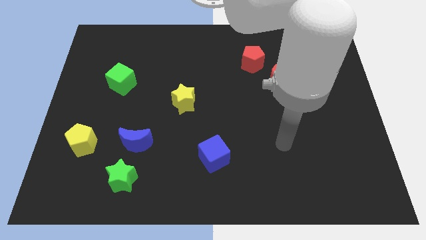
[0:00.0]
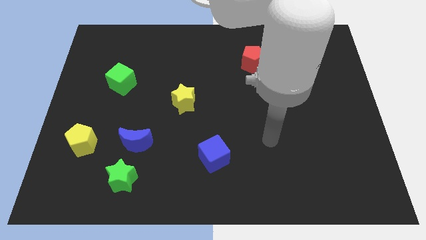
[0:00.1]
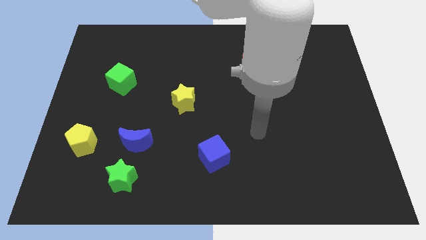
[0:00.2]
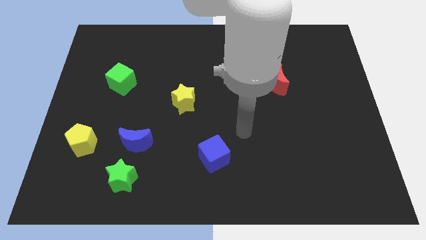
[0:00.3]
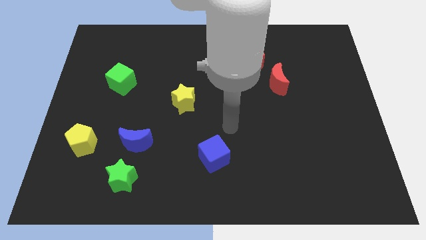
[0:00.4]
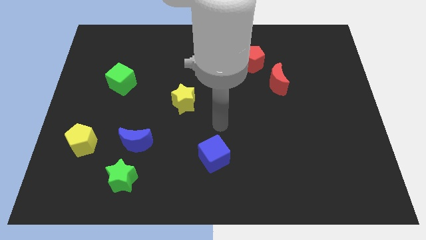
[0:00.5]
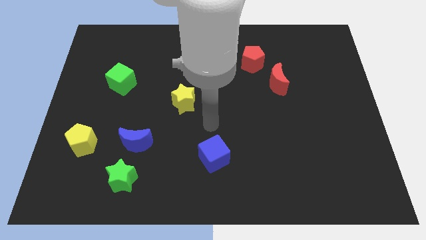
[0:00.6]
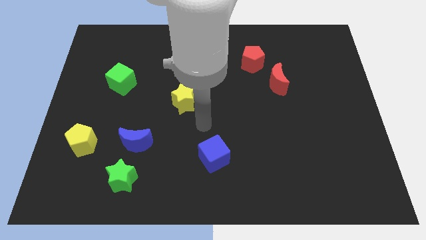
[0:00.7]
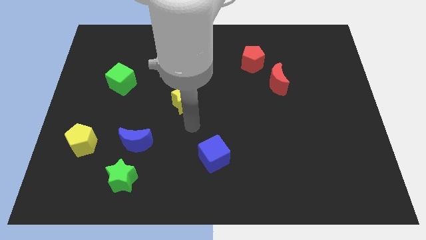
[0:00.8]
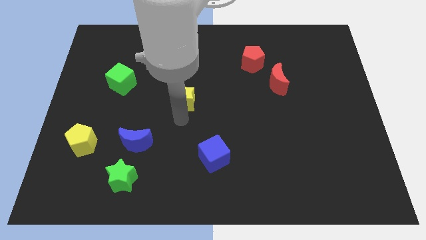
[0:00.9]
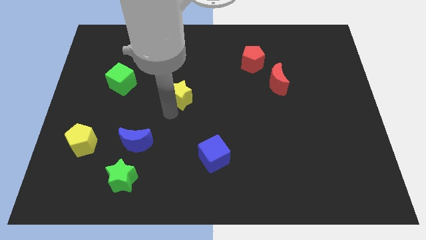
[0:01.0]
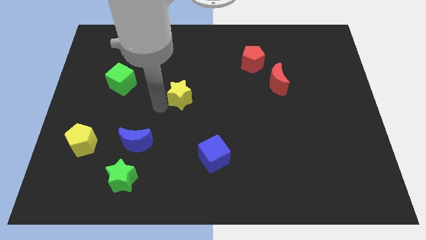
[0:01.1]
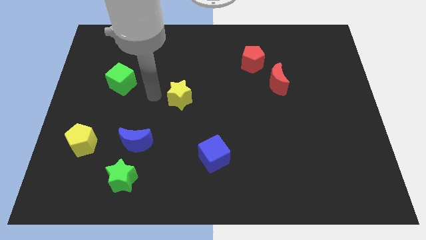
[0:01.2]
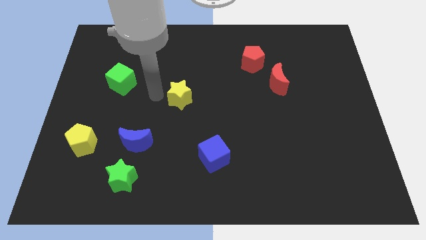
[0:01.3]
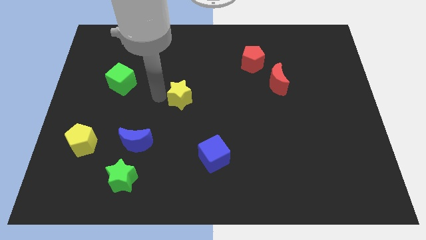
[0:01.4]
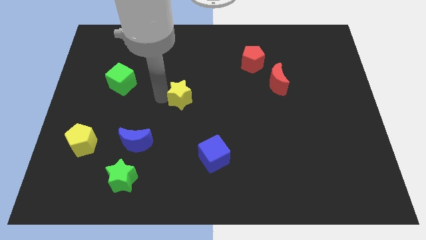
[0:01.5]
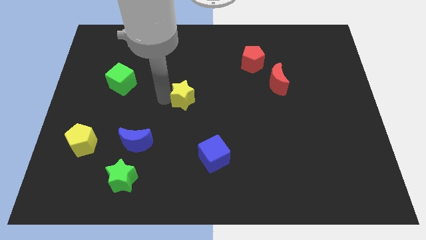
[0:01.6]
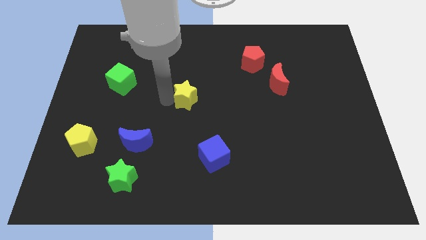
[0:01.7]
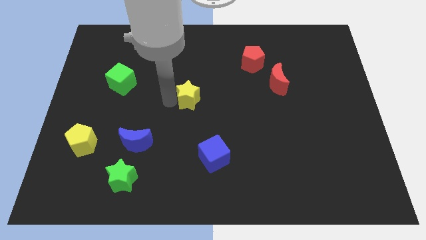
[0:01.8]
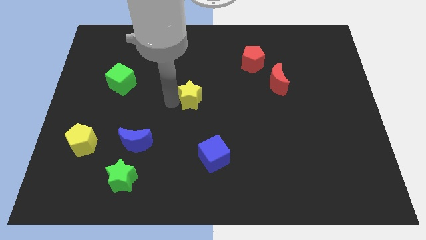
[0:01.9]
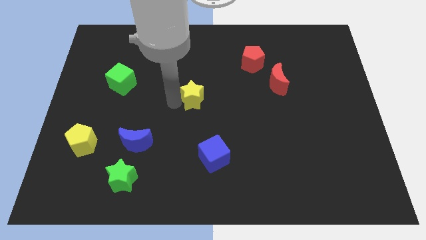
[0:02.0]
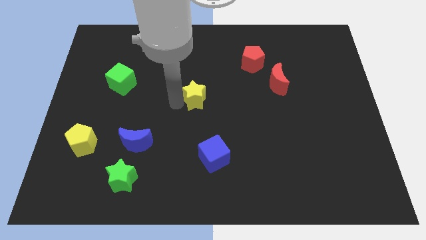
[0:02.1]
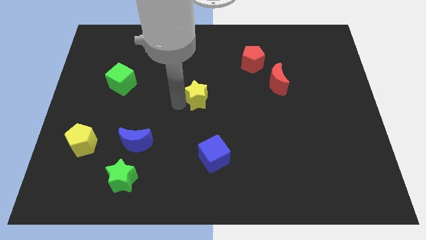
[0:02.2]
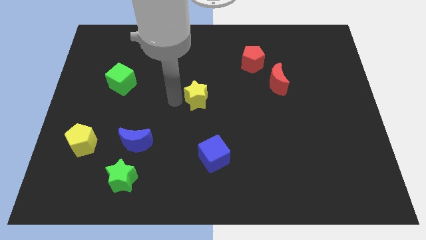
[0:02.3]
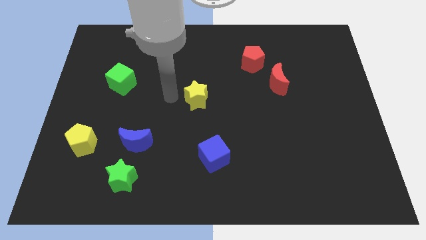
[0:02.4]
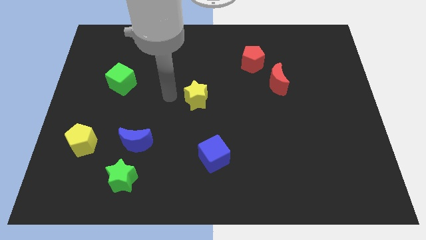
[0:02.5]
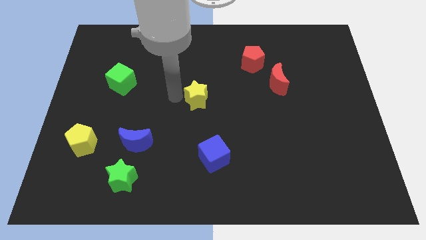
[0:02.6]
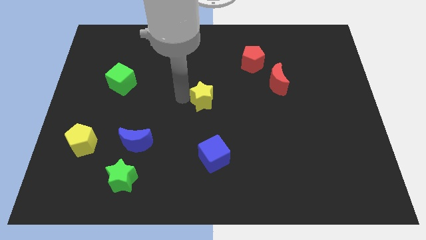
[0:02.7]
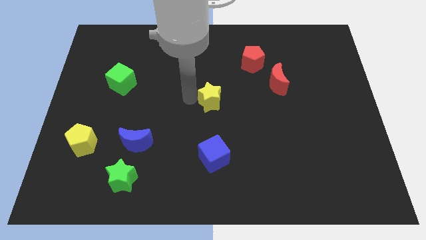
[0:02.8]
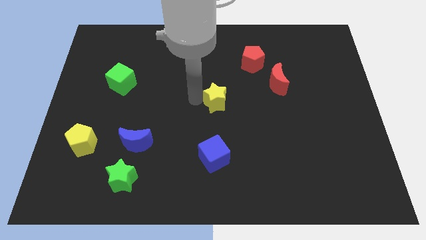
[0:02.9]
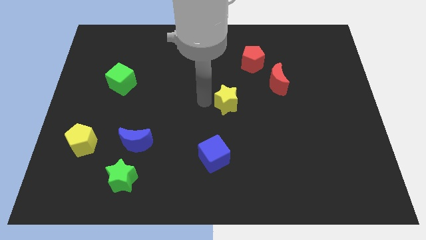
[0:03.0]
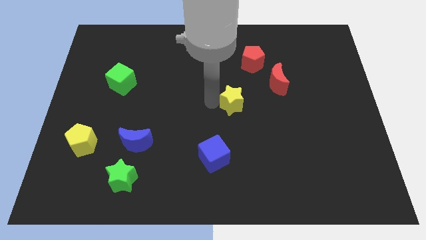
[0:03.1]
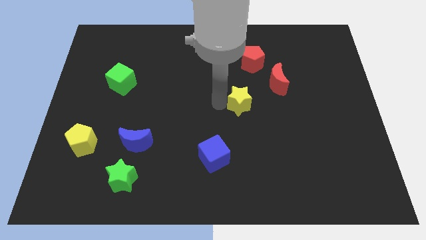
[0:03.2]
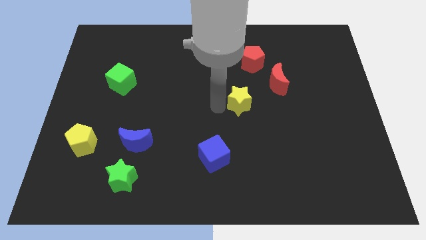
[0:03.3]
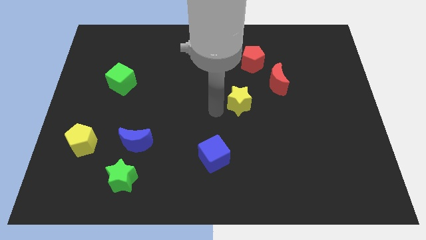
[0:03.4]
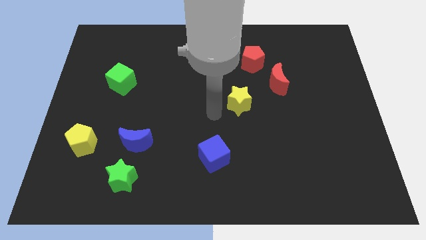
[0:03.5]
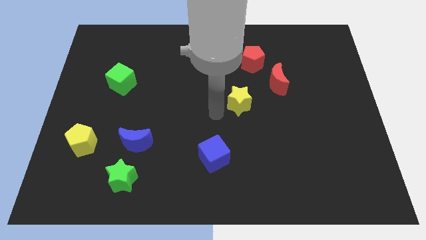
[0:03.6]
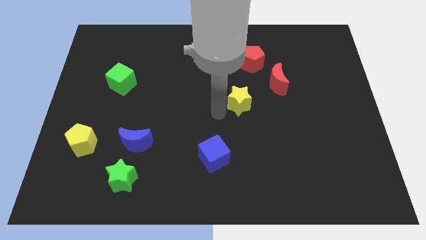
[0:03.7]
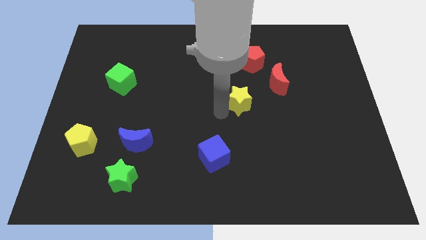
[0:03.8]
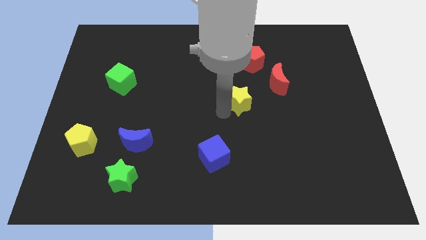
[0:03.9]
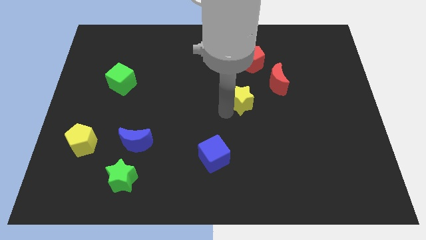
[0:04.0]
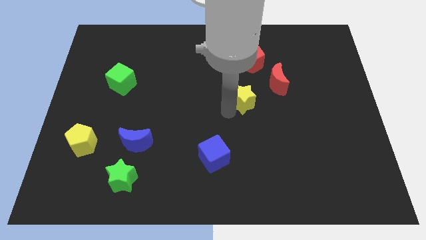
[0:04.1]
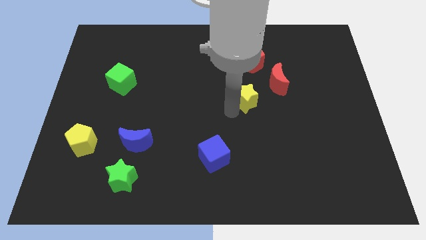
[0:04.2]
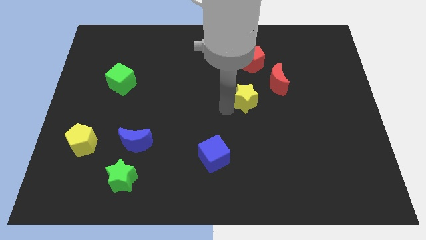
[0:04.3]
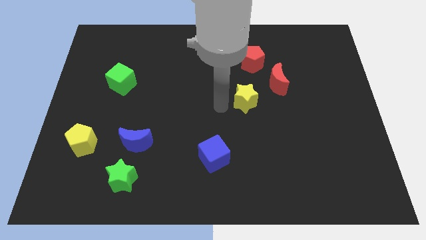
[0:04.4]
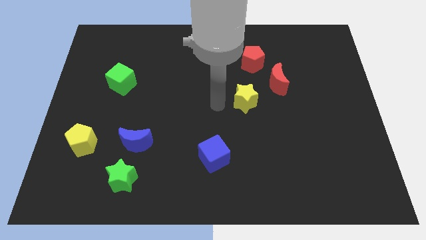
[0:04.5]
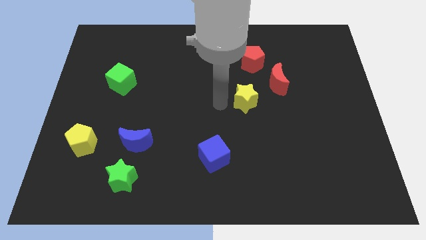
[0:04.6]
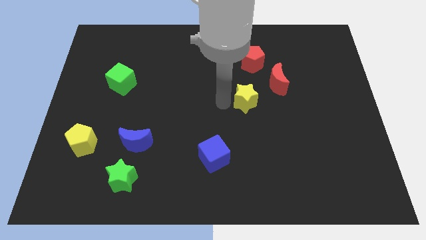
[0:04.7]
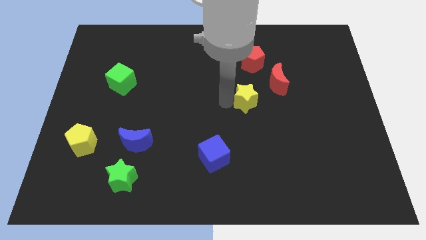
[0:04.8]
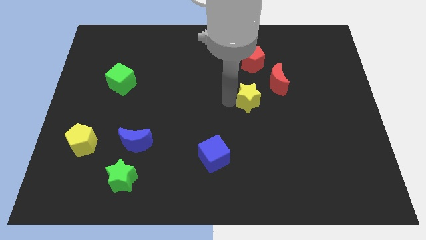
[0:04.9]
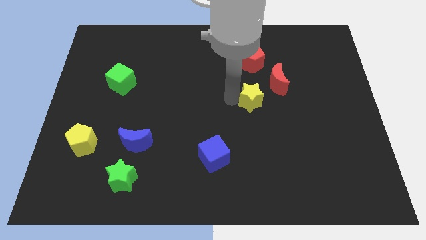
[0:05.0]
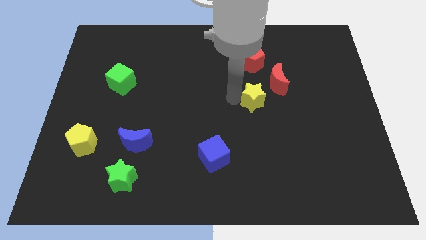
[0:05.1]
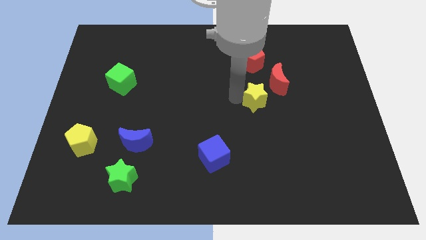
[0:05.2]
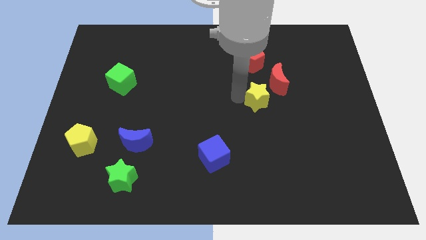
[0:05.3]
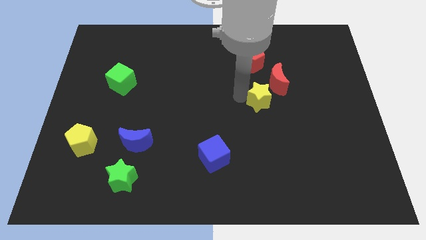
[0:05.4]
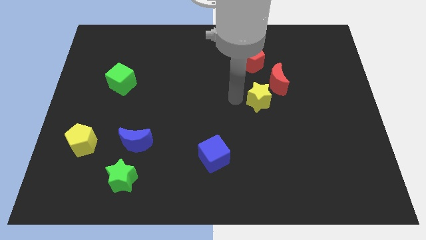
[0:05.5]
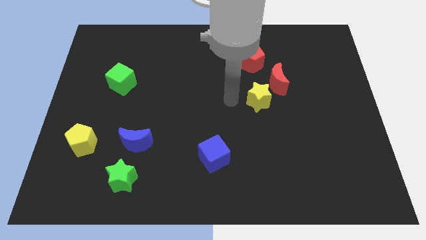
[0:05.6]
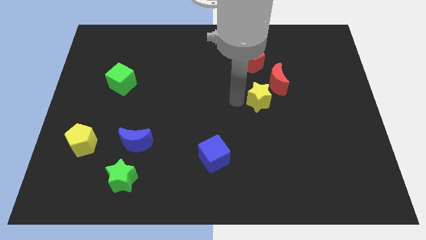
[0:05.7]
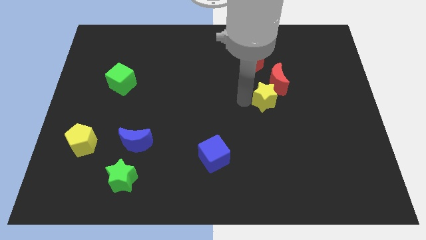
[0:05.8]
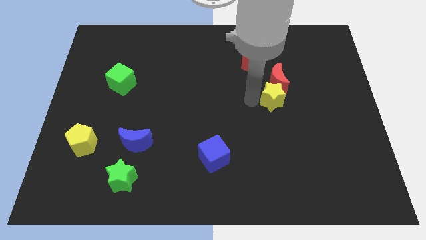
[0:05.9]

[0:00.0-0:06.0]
move the yellow star to the right

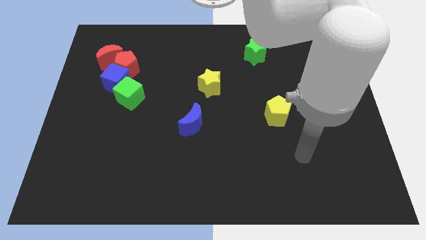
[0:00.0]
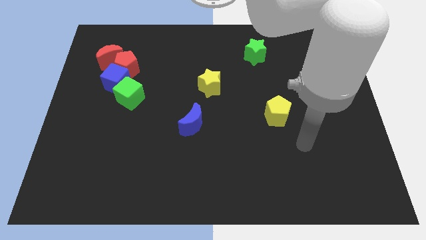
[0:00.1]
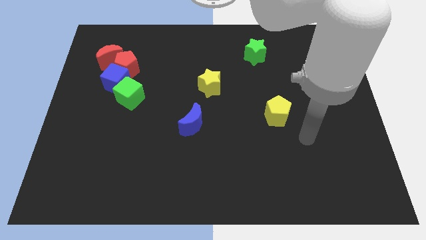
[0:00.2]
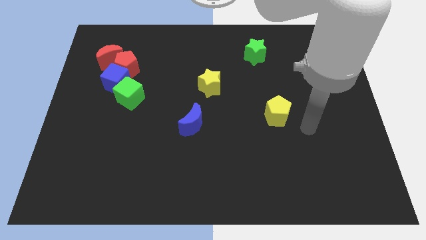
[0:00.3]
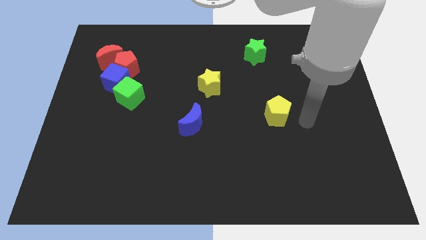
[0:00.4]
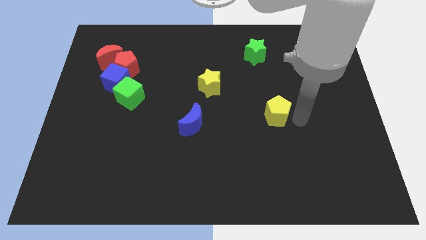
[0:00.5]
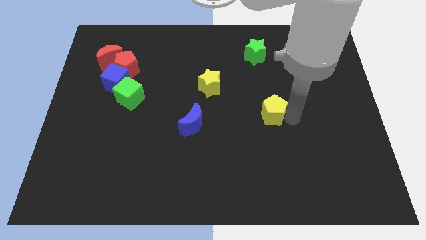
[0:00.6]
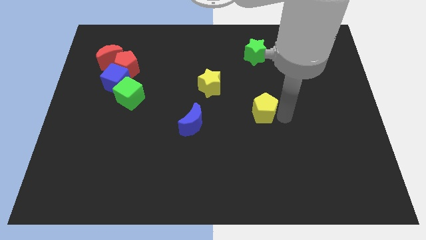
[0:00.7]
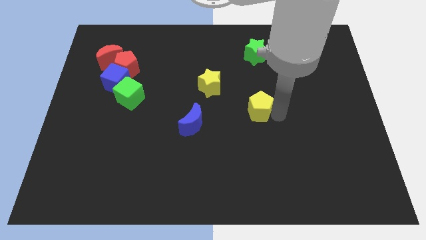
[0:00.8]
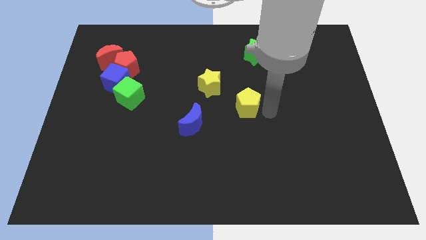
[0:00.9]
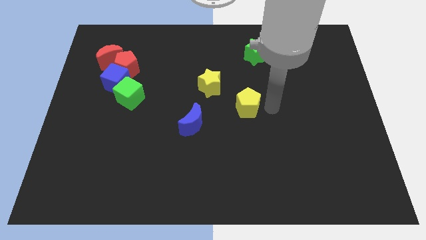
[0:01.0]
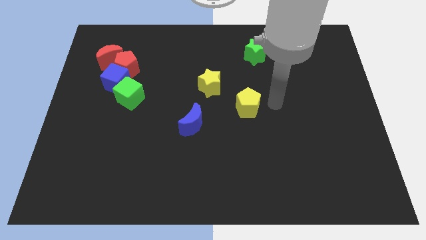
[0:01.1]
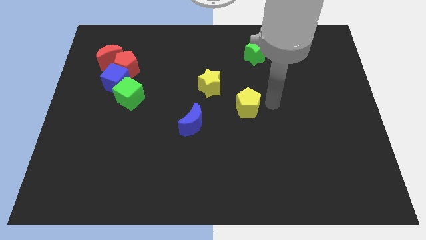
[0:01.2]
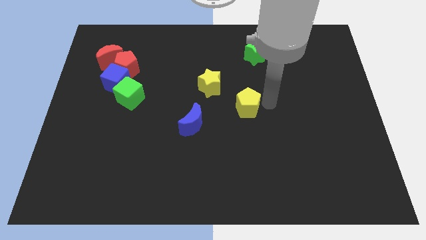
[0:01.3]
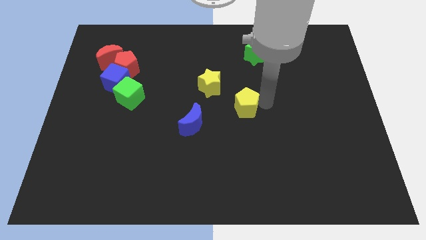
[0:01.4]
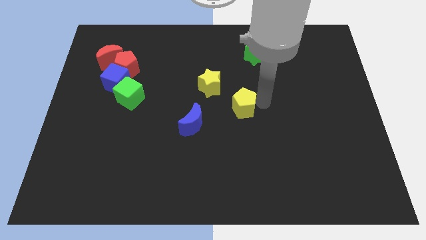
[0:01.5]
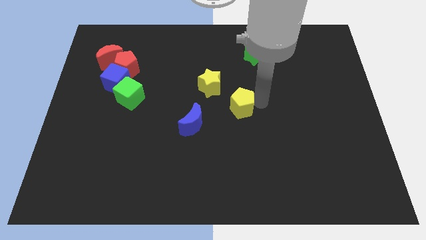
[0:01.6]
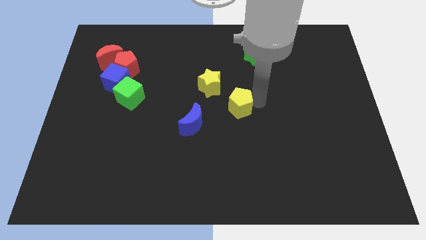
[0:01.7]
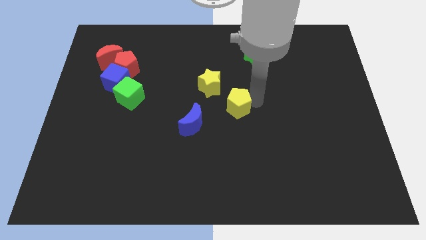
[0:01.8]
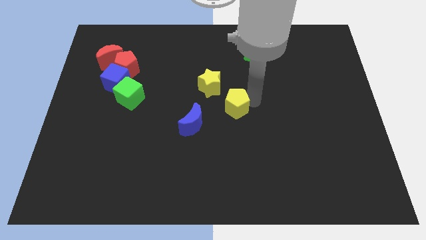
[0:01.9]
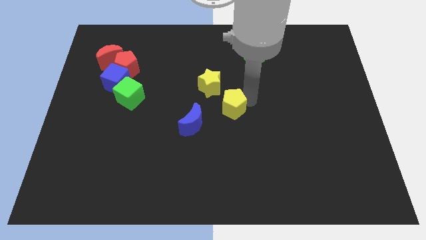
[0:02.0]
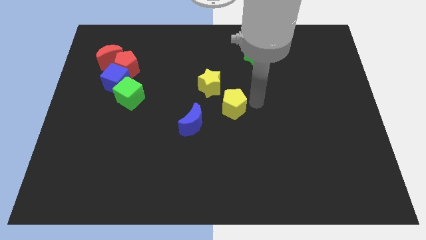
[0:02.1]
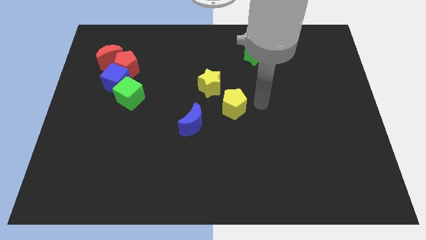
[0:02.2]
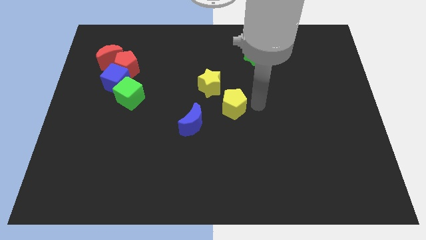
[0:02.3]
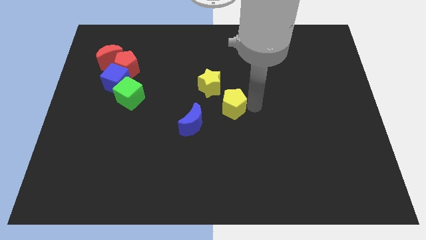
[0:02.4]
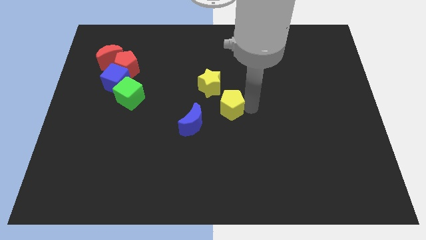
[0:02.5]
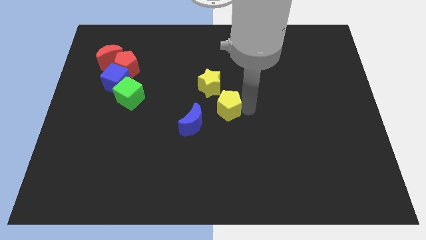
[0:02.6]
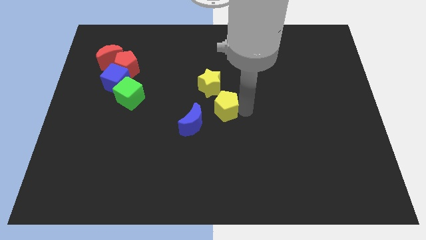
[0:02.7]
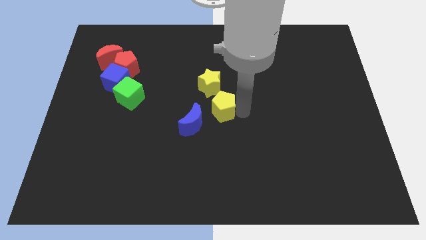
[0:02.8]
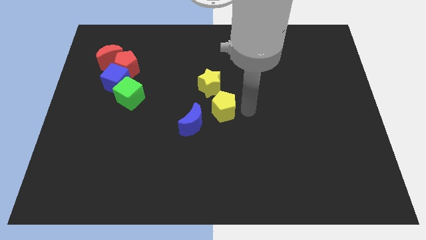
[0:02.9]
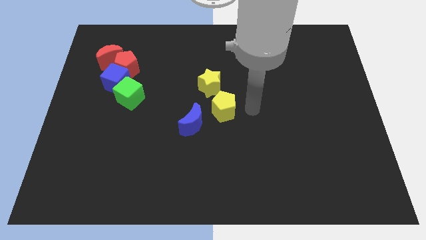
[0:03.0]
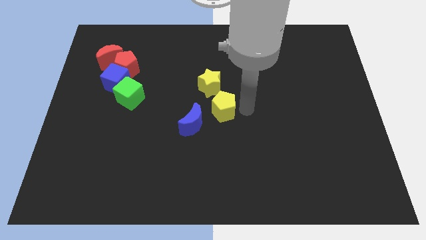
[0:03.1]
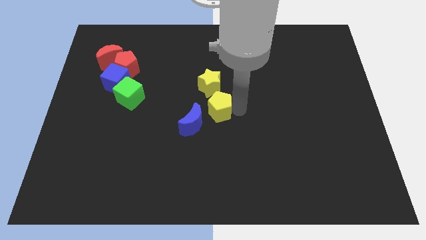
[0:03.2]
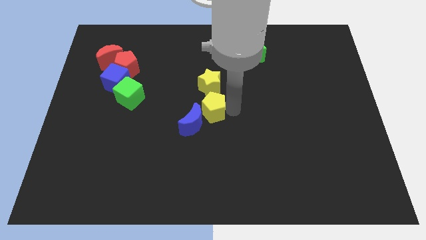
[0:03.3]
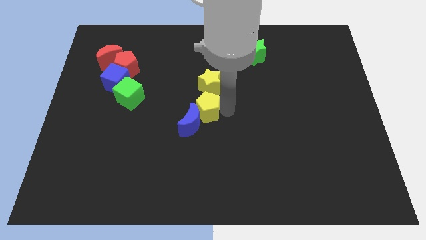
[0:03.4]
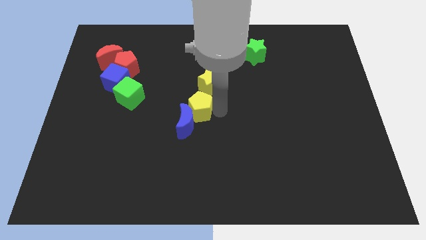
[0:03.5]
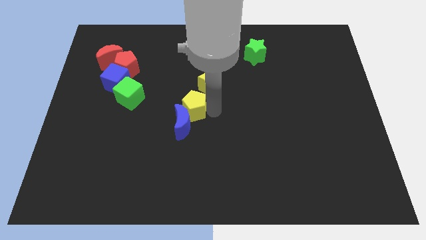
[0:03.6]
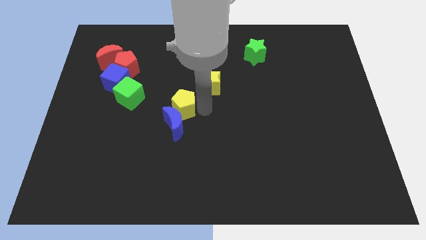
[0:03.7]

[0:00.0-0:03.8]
move the yellow pentagon to the left
